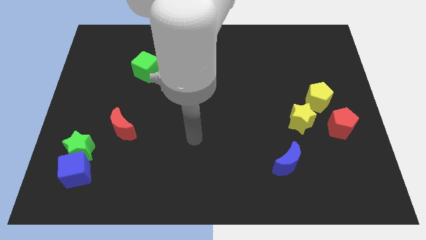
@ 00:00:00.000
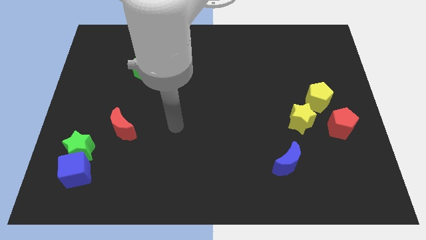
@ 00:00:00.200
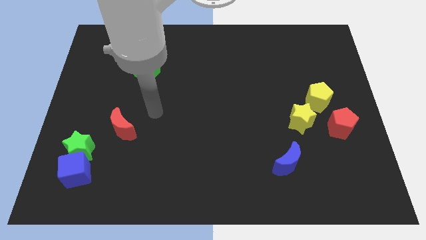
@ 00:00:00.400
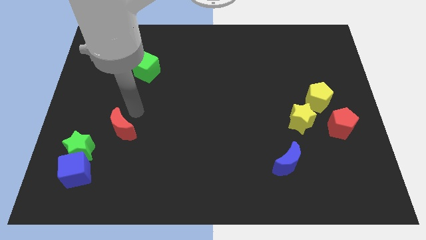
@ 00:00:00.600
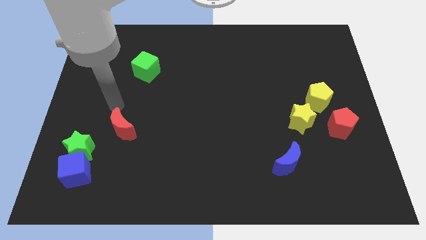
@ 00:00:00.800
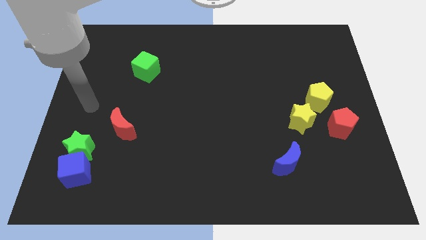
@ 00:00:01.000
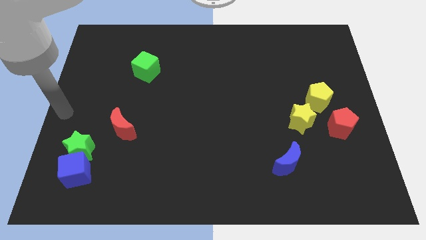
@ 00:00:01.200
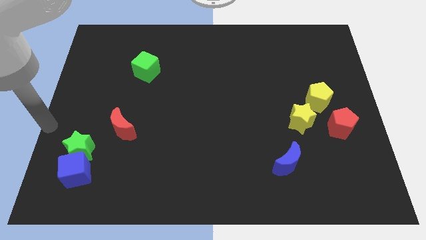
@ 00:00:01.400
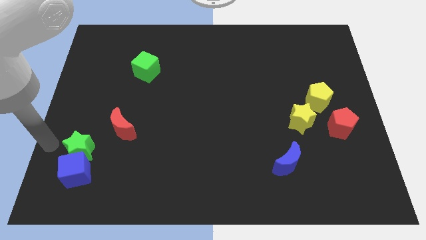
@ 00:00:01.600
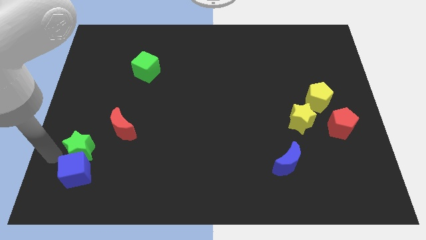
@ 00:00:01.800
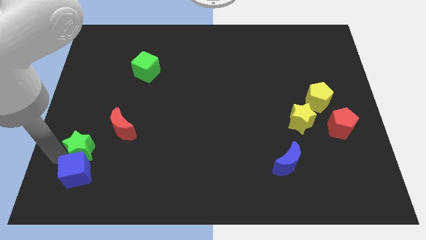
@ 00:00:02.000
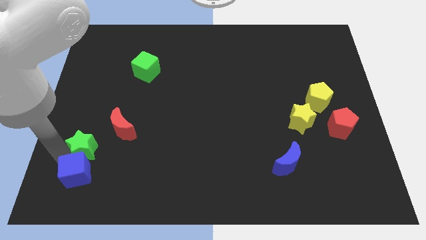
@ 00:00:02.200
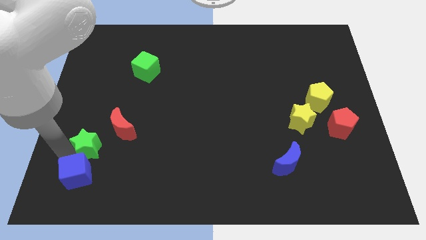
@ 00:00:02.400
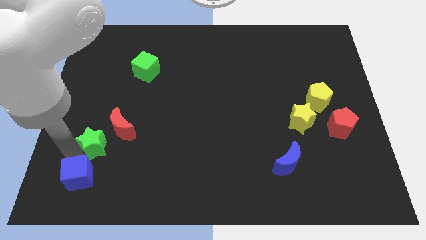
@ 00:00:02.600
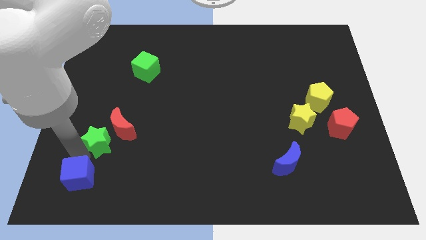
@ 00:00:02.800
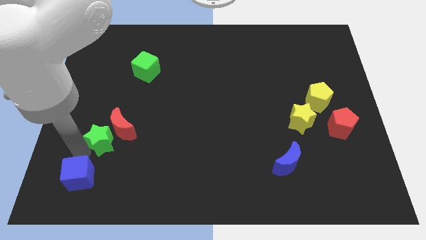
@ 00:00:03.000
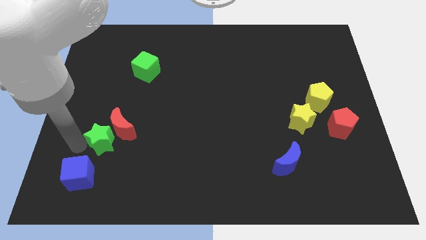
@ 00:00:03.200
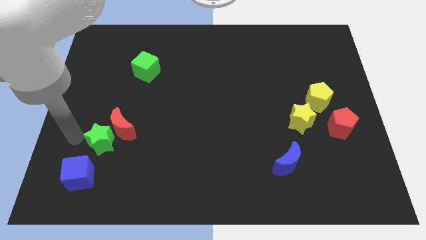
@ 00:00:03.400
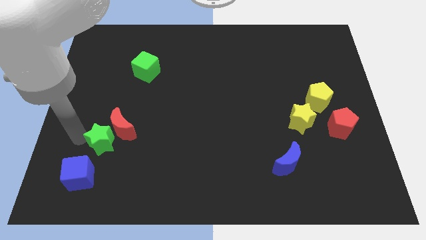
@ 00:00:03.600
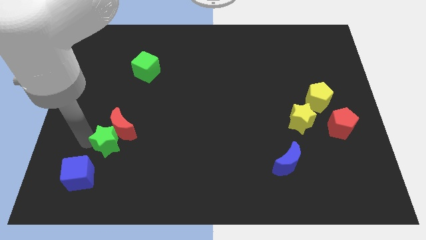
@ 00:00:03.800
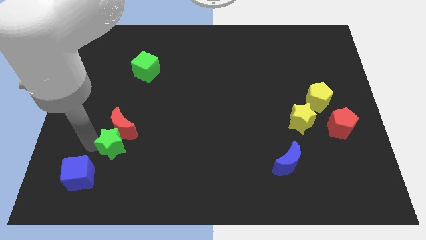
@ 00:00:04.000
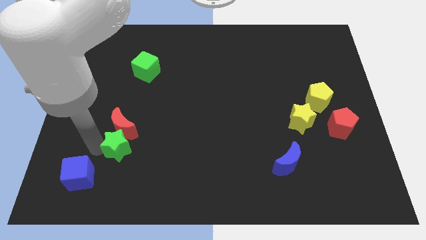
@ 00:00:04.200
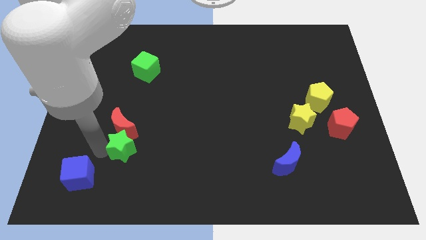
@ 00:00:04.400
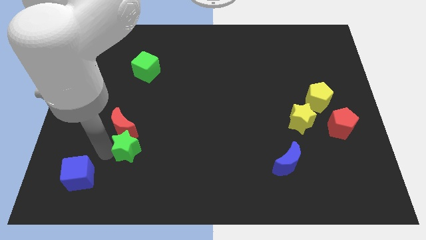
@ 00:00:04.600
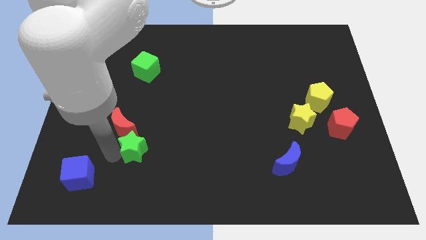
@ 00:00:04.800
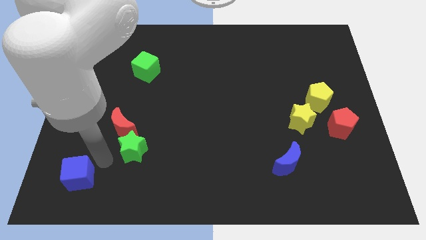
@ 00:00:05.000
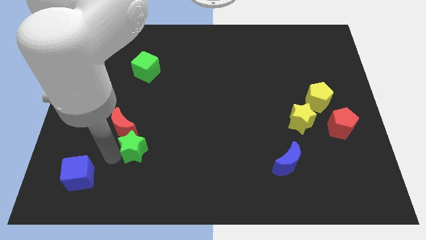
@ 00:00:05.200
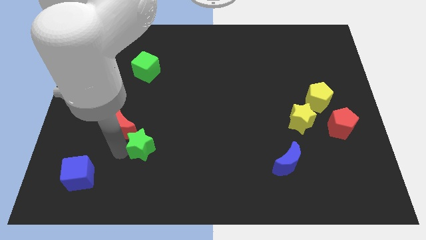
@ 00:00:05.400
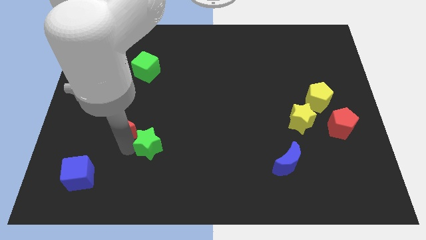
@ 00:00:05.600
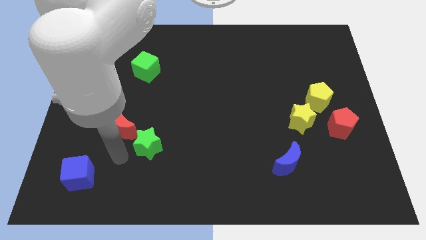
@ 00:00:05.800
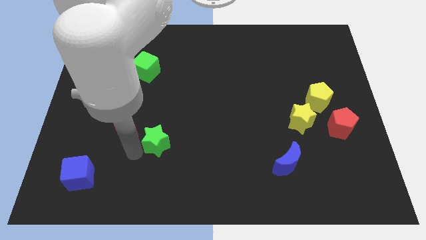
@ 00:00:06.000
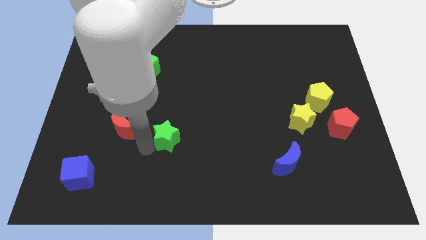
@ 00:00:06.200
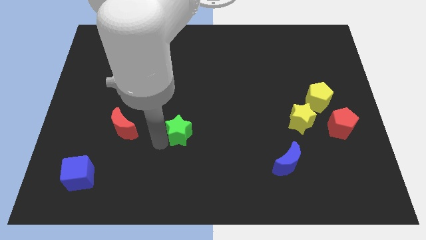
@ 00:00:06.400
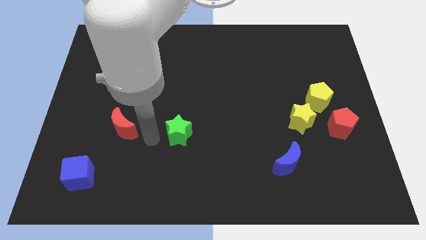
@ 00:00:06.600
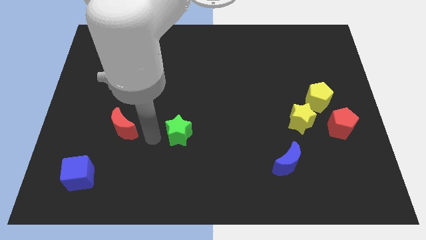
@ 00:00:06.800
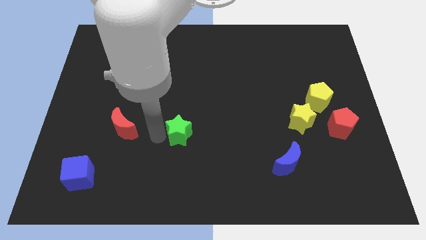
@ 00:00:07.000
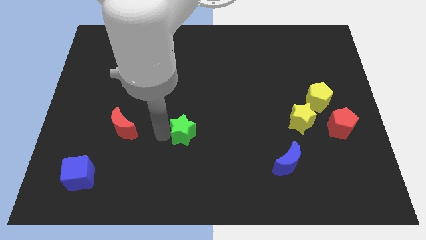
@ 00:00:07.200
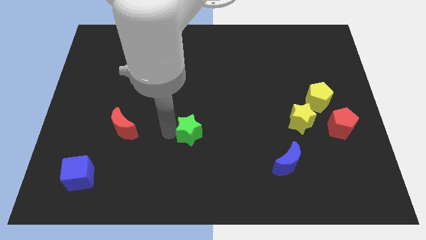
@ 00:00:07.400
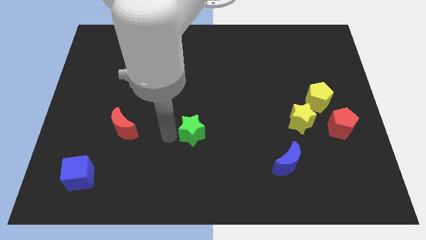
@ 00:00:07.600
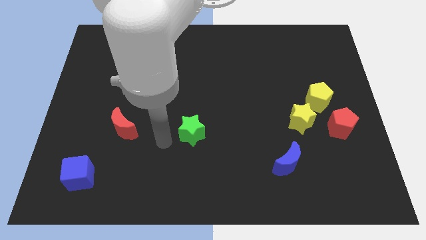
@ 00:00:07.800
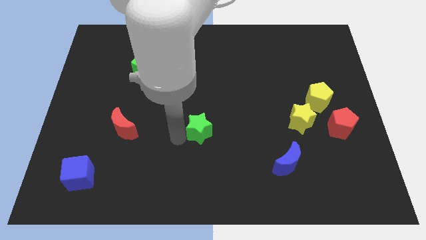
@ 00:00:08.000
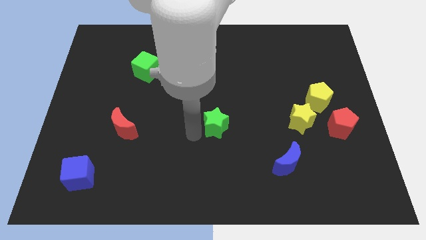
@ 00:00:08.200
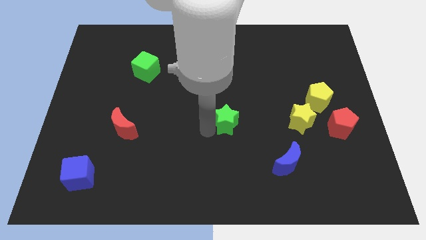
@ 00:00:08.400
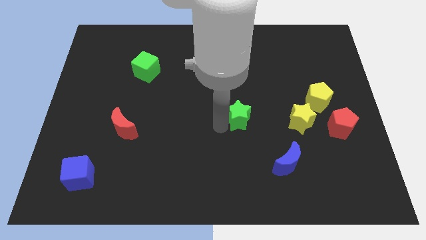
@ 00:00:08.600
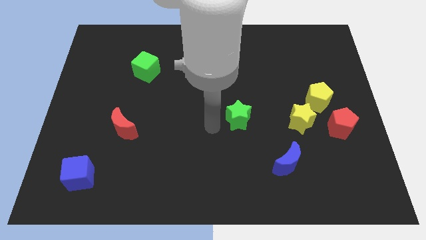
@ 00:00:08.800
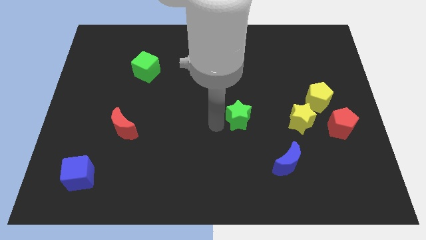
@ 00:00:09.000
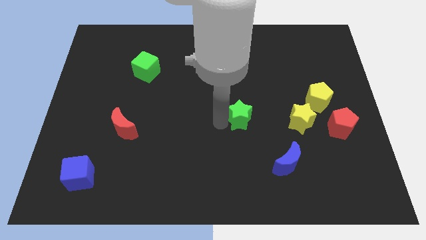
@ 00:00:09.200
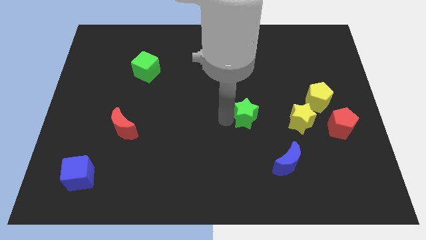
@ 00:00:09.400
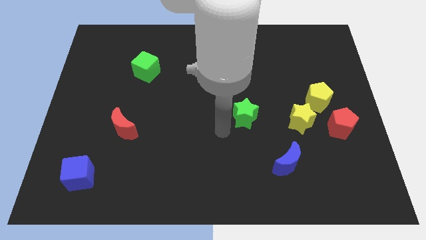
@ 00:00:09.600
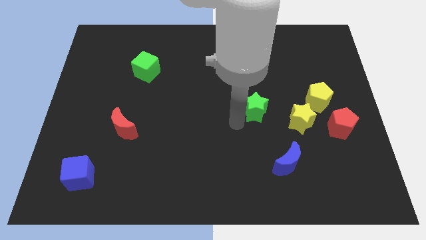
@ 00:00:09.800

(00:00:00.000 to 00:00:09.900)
slide the green star just left of the yellow pentagon

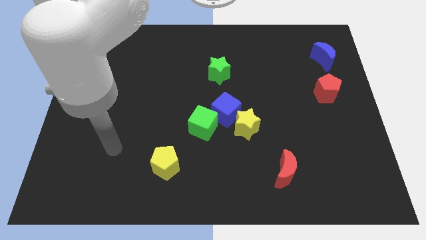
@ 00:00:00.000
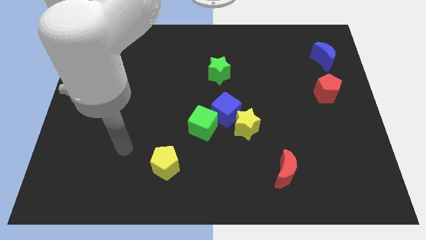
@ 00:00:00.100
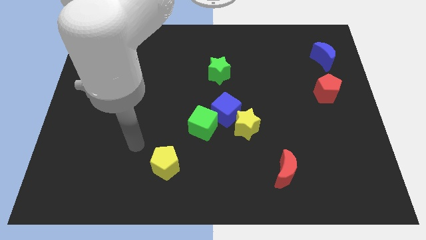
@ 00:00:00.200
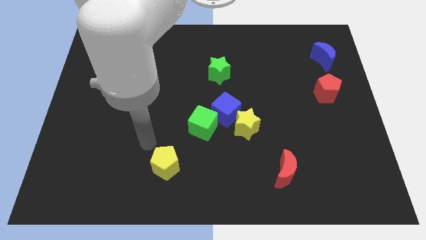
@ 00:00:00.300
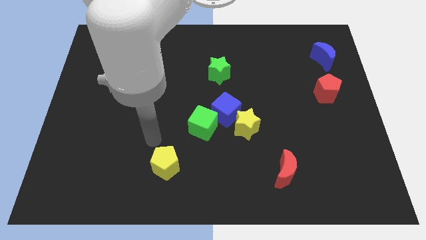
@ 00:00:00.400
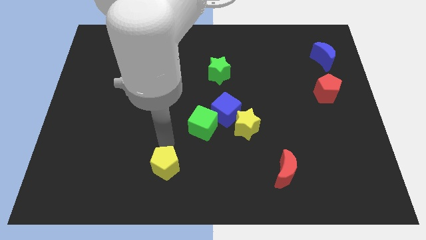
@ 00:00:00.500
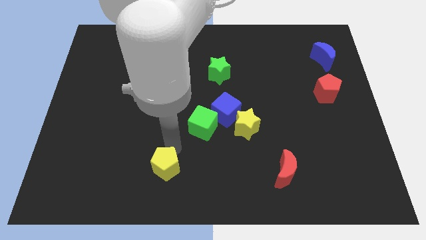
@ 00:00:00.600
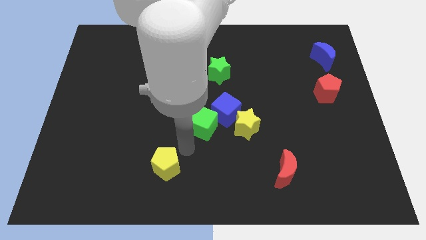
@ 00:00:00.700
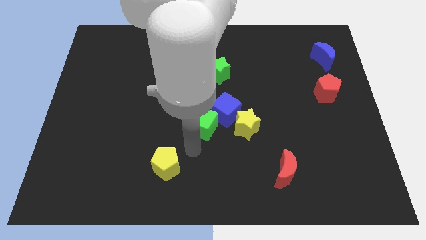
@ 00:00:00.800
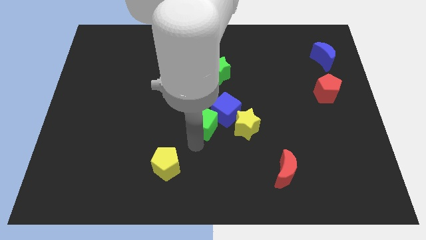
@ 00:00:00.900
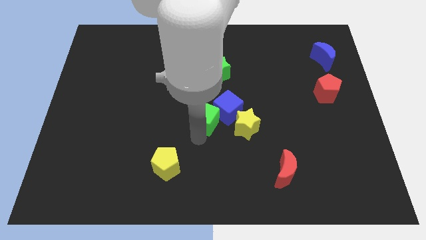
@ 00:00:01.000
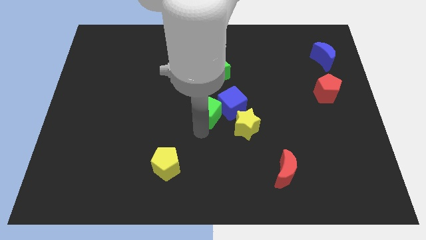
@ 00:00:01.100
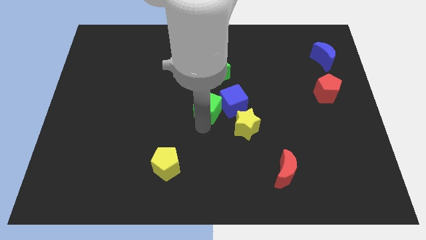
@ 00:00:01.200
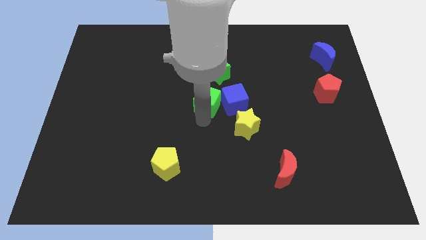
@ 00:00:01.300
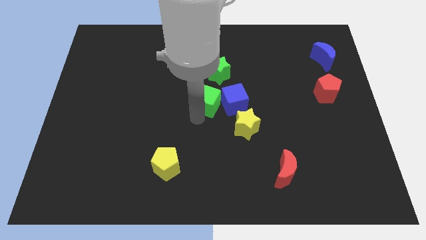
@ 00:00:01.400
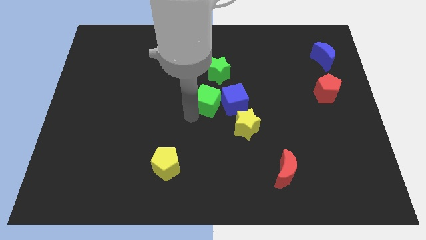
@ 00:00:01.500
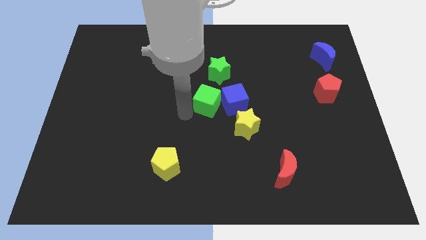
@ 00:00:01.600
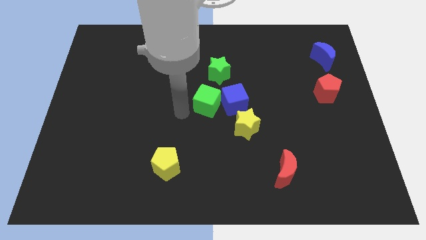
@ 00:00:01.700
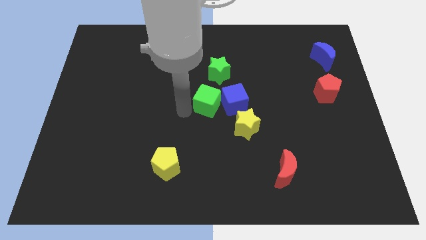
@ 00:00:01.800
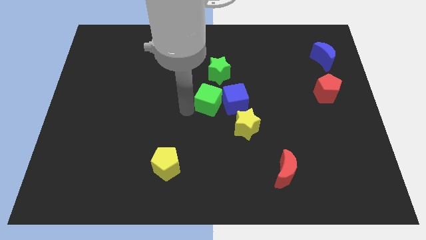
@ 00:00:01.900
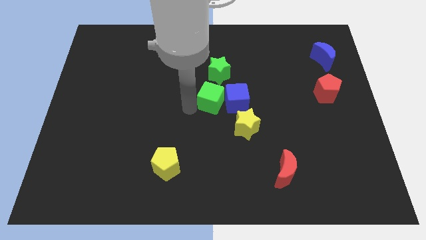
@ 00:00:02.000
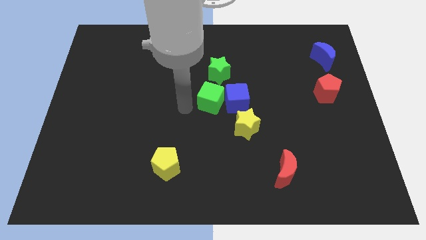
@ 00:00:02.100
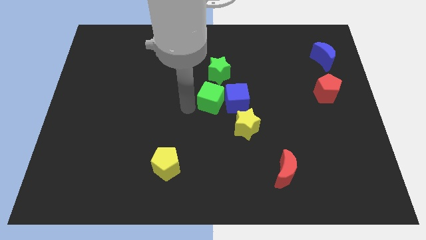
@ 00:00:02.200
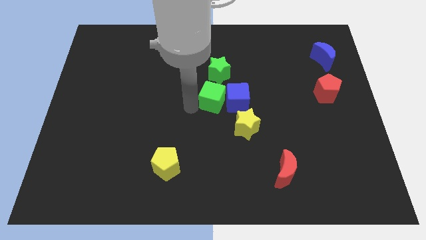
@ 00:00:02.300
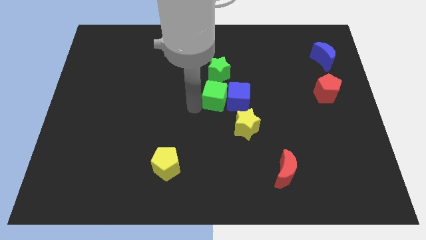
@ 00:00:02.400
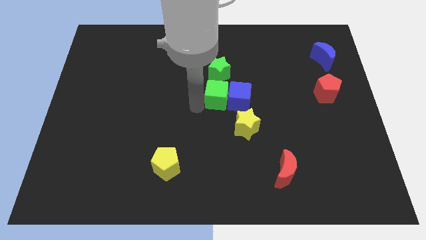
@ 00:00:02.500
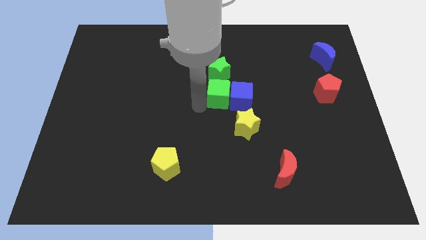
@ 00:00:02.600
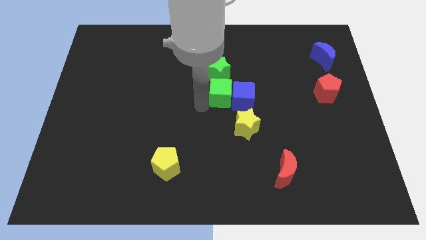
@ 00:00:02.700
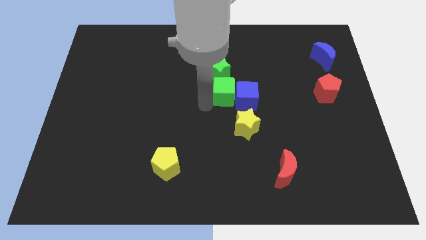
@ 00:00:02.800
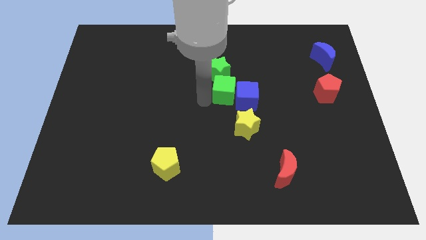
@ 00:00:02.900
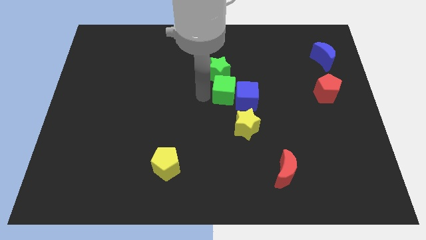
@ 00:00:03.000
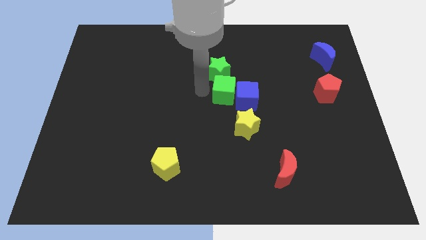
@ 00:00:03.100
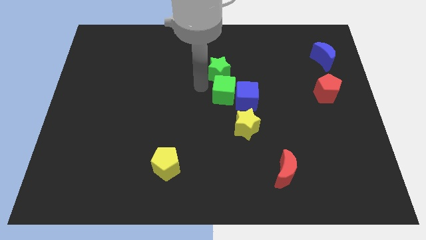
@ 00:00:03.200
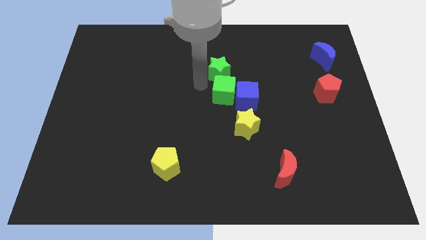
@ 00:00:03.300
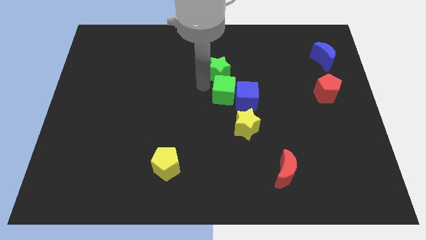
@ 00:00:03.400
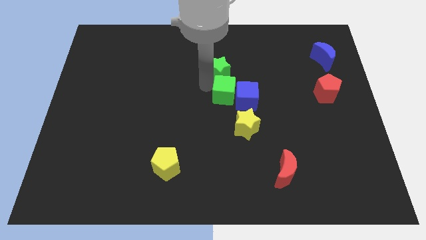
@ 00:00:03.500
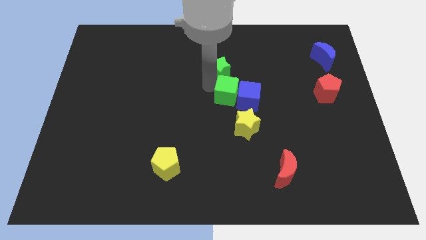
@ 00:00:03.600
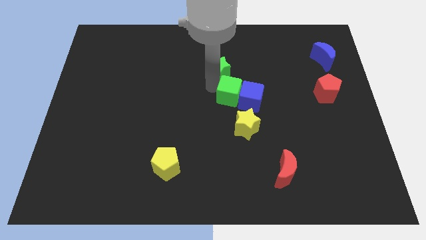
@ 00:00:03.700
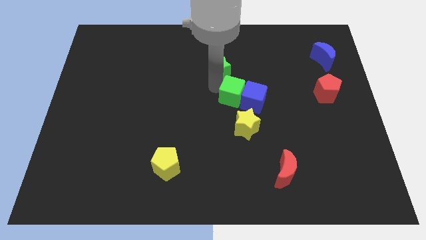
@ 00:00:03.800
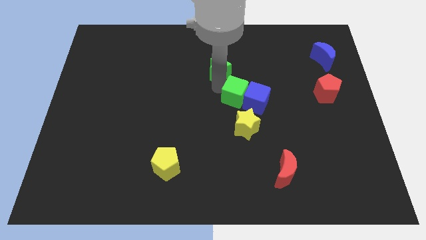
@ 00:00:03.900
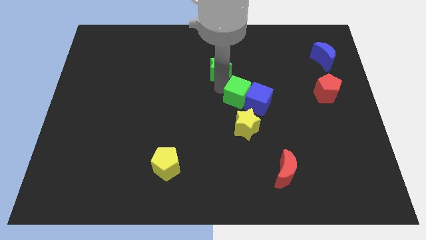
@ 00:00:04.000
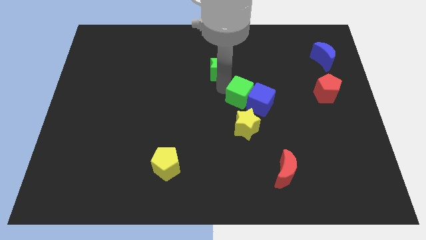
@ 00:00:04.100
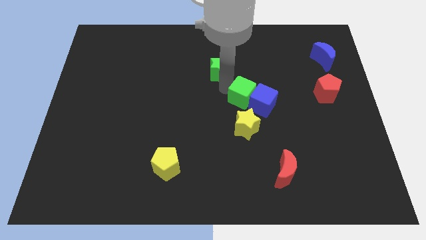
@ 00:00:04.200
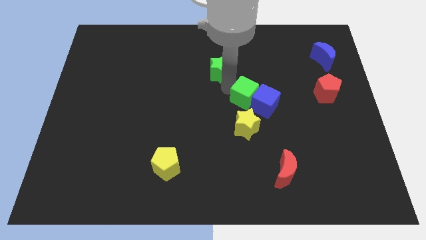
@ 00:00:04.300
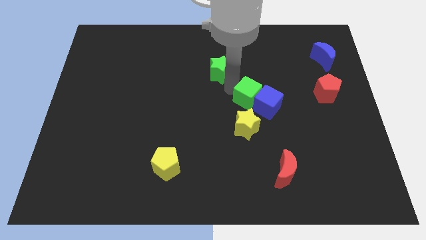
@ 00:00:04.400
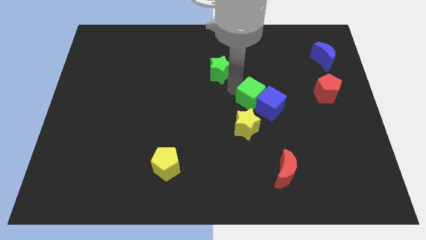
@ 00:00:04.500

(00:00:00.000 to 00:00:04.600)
push the green cube to the top right side of the yellow star
